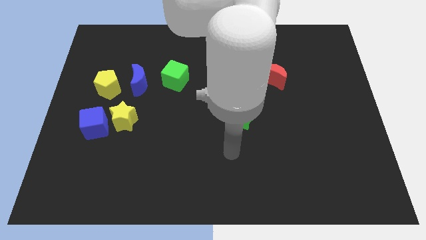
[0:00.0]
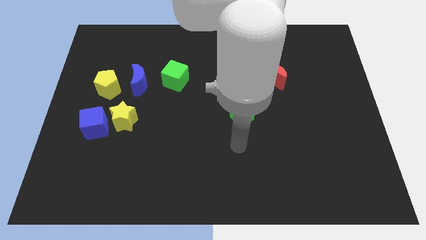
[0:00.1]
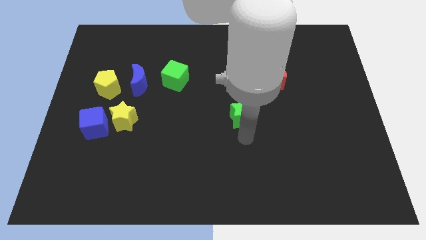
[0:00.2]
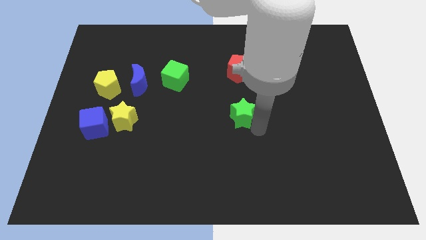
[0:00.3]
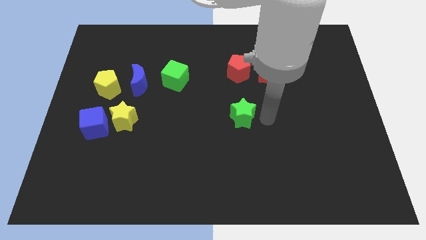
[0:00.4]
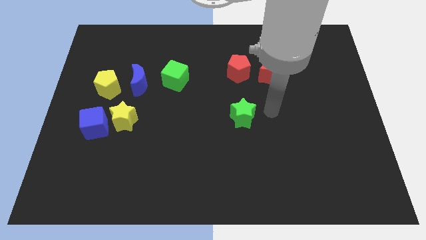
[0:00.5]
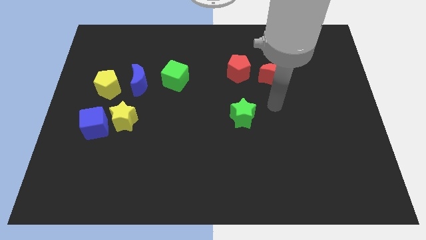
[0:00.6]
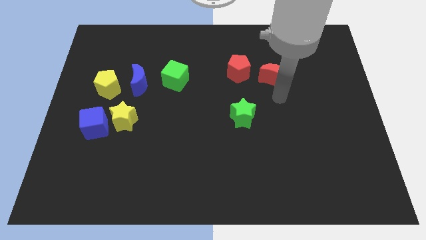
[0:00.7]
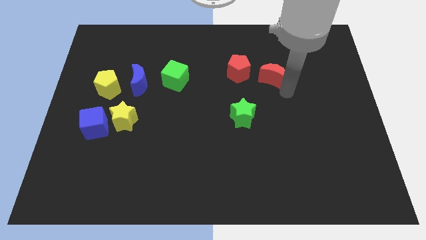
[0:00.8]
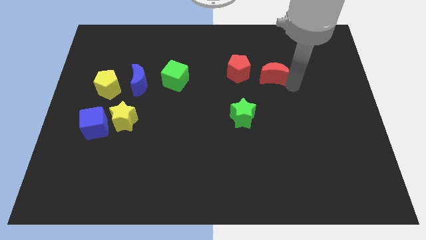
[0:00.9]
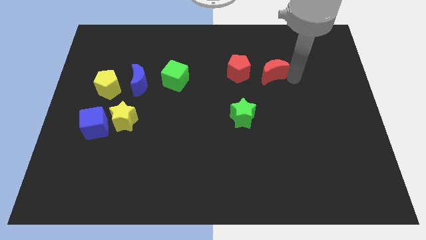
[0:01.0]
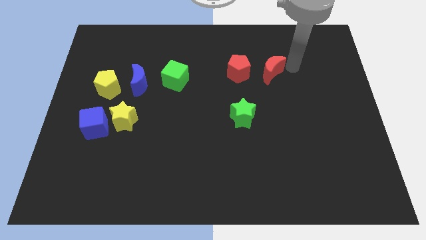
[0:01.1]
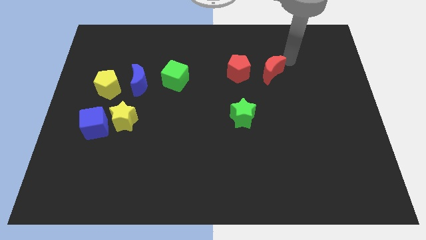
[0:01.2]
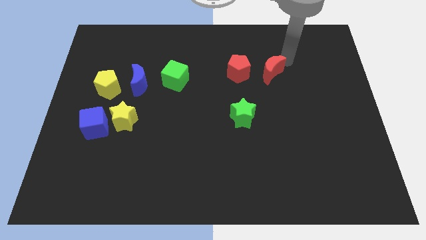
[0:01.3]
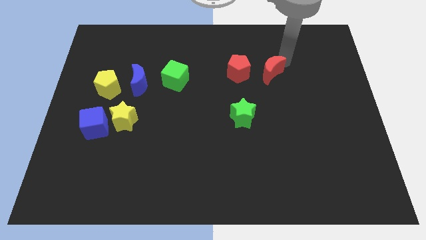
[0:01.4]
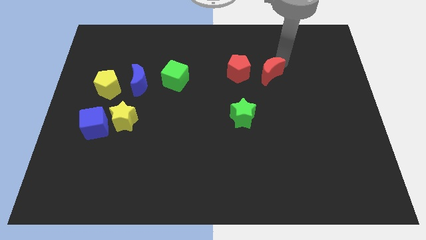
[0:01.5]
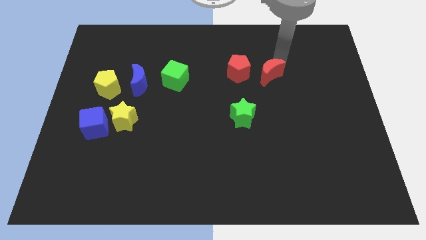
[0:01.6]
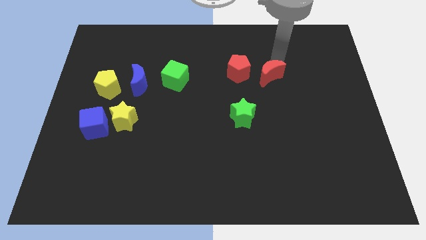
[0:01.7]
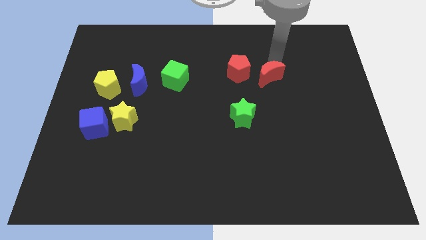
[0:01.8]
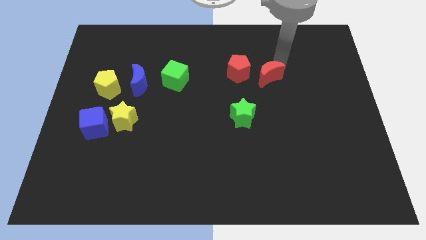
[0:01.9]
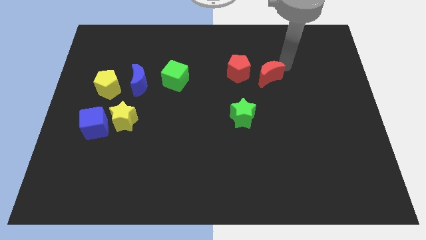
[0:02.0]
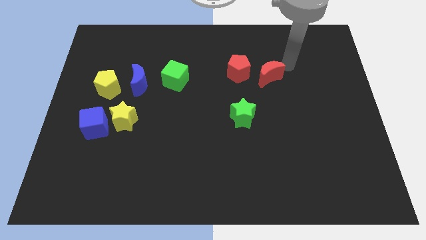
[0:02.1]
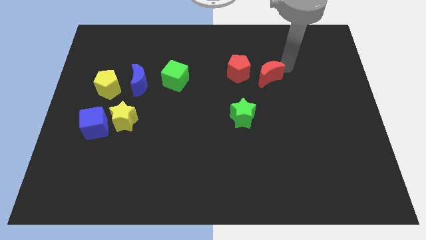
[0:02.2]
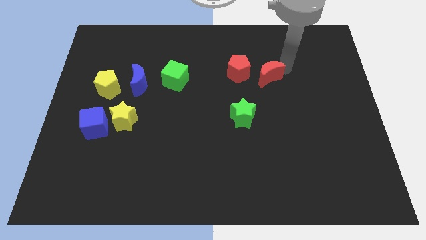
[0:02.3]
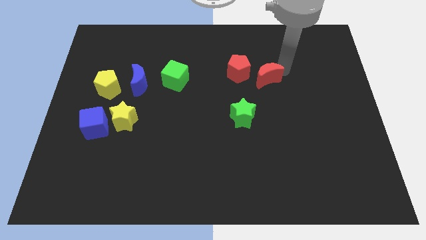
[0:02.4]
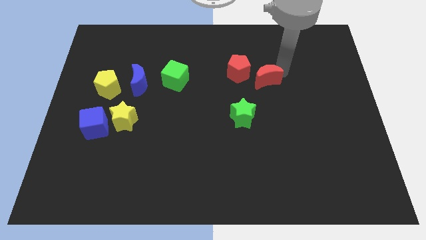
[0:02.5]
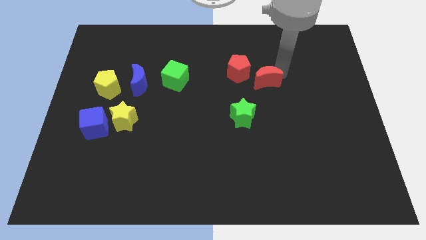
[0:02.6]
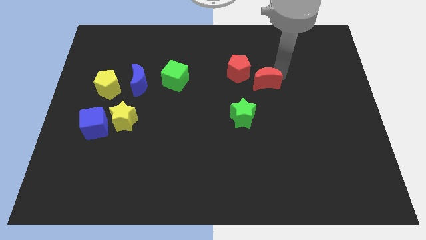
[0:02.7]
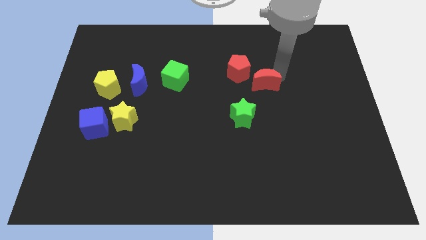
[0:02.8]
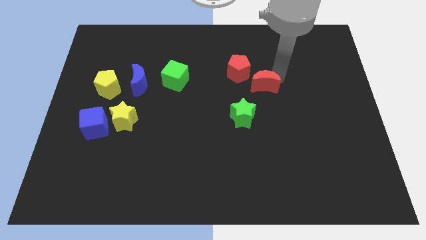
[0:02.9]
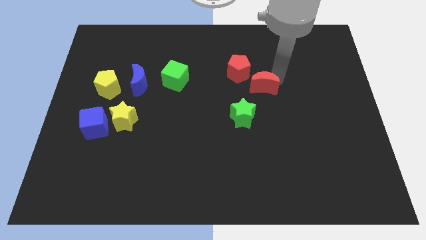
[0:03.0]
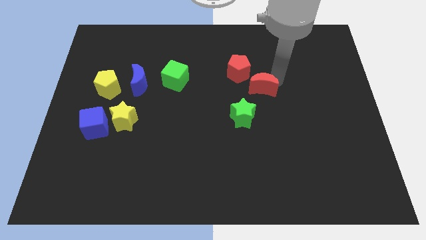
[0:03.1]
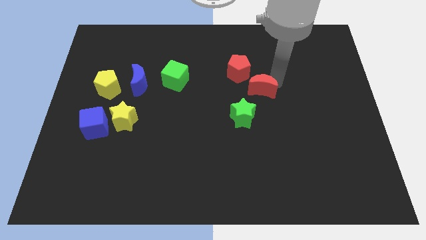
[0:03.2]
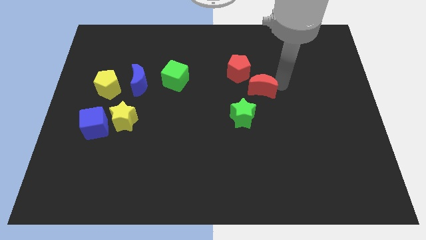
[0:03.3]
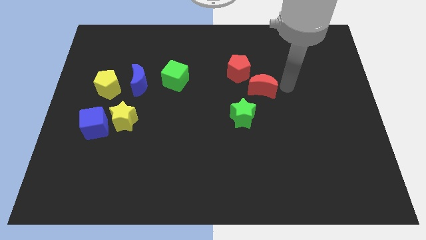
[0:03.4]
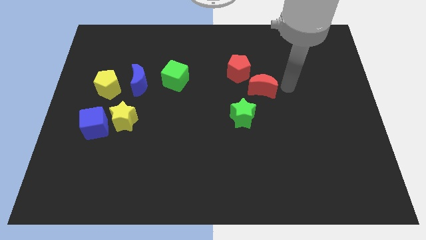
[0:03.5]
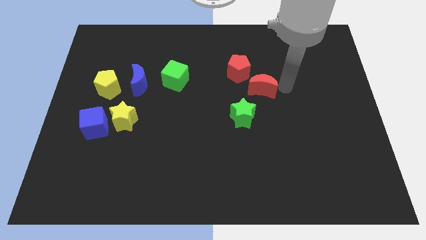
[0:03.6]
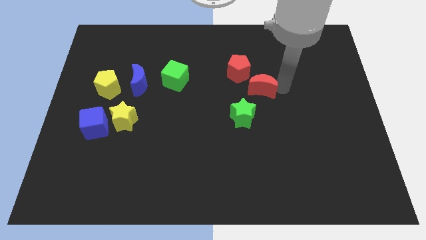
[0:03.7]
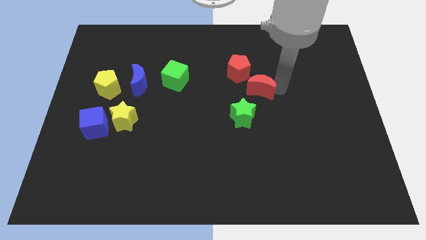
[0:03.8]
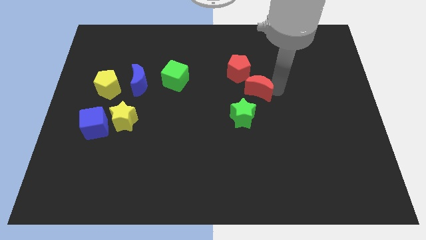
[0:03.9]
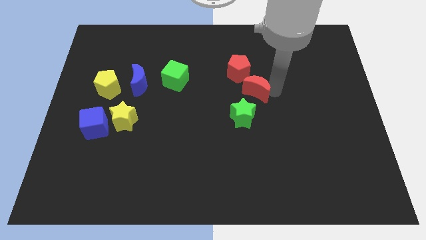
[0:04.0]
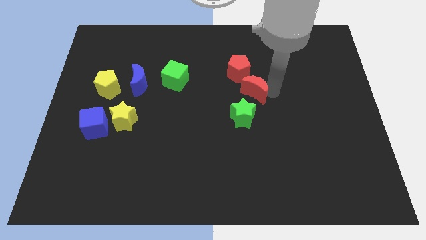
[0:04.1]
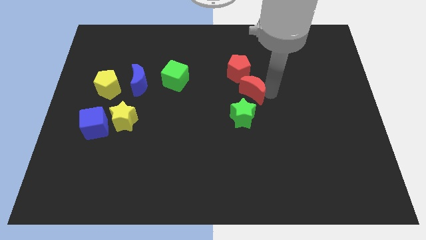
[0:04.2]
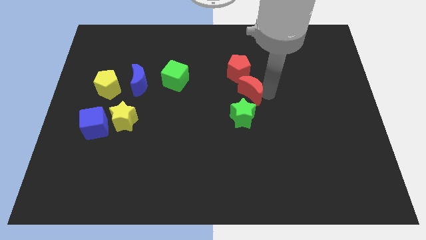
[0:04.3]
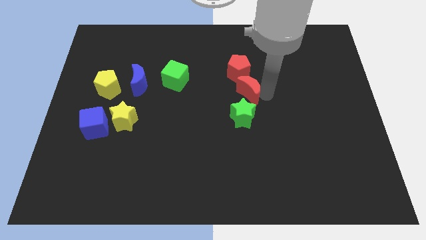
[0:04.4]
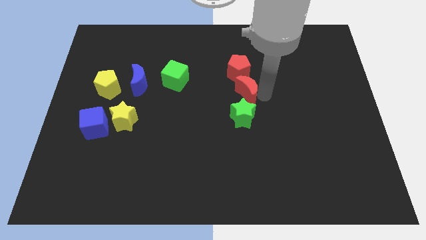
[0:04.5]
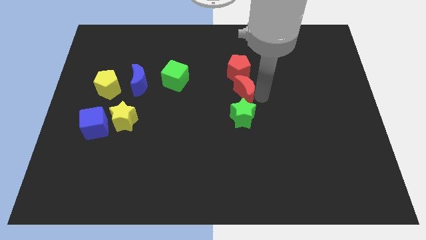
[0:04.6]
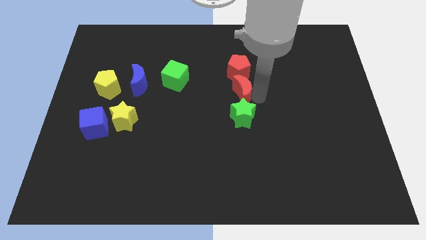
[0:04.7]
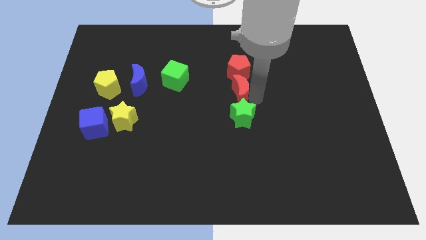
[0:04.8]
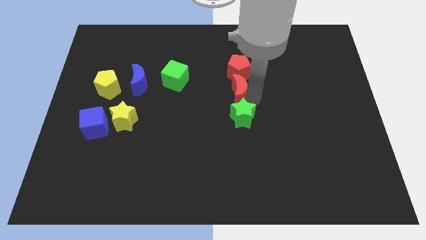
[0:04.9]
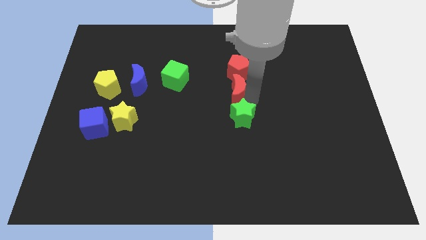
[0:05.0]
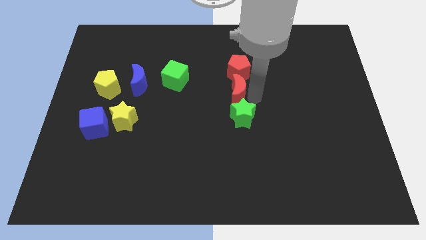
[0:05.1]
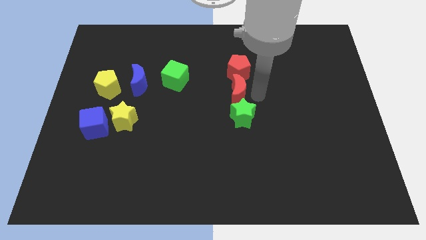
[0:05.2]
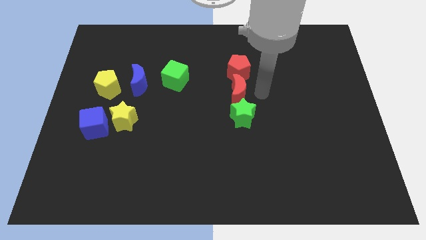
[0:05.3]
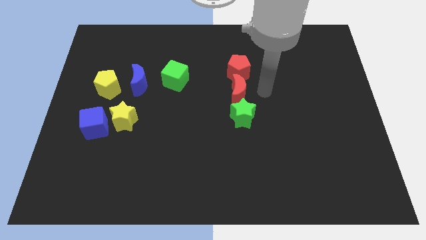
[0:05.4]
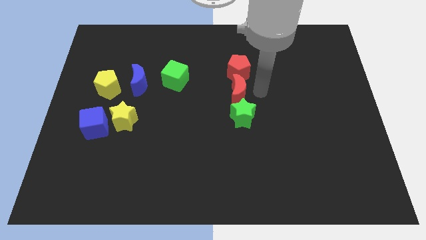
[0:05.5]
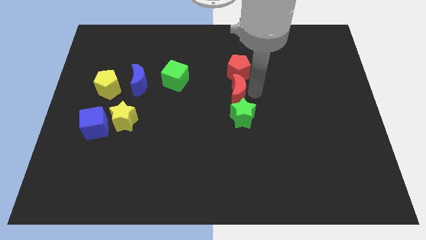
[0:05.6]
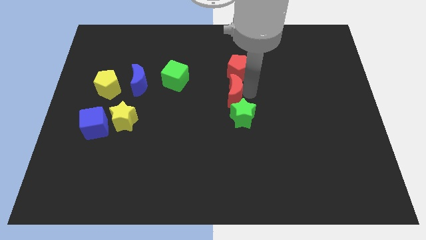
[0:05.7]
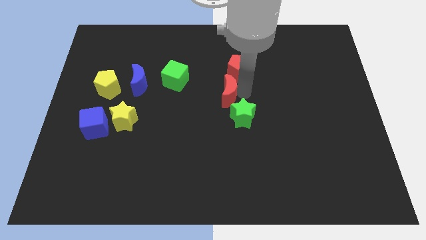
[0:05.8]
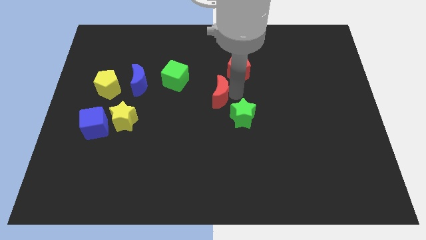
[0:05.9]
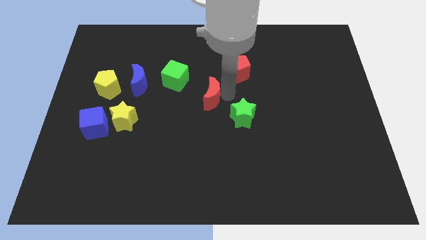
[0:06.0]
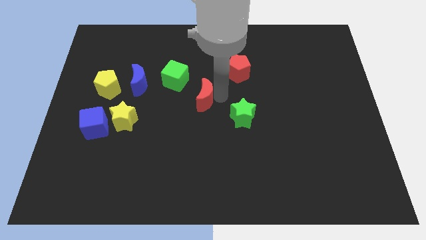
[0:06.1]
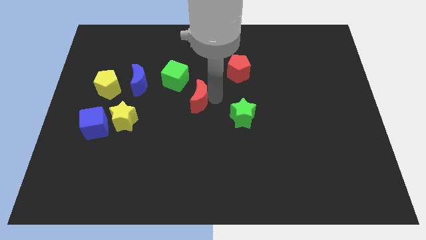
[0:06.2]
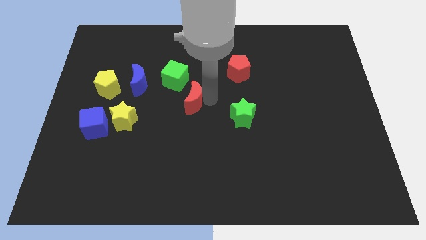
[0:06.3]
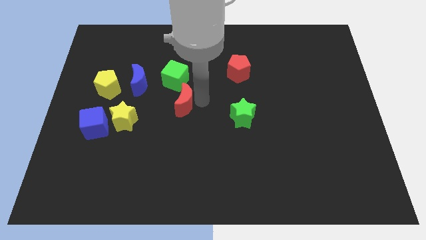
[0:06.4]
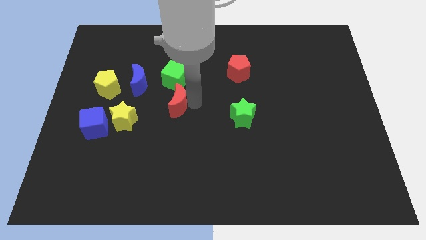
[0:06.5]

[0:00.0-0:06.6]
put the red moon to the bottom right side of the blue moon

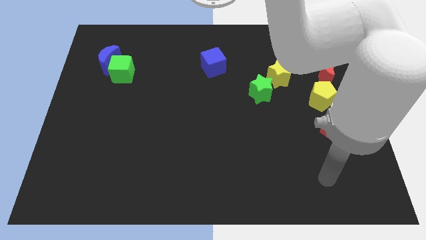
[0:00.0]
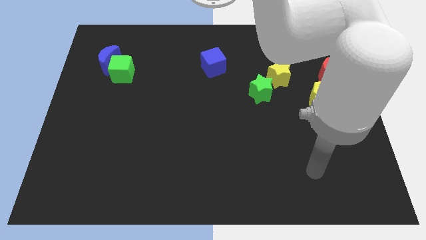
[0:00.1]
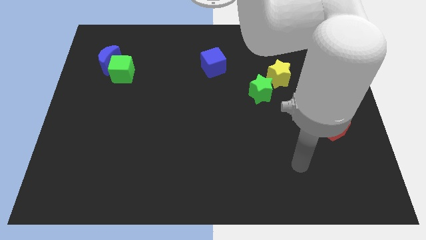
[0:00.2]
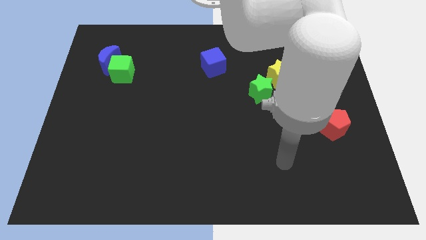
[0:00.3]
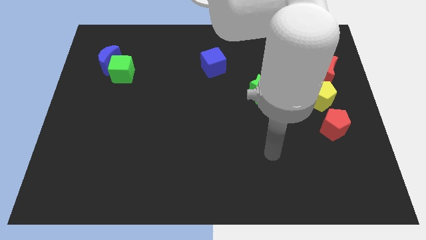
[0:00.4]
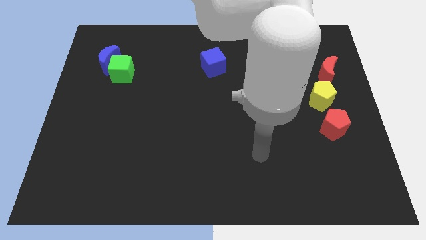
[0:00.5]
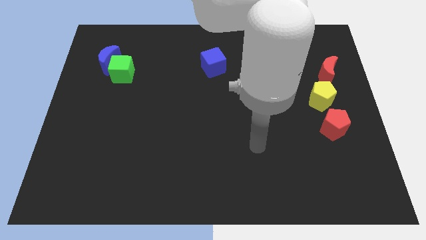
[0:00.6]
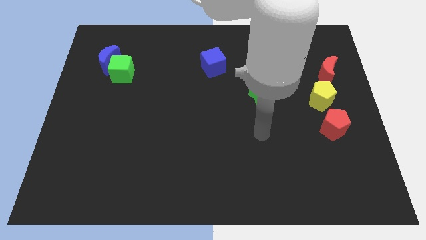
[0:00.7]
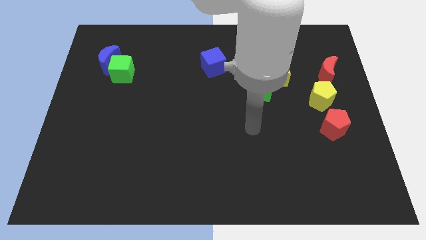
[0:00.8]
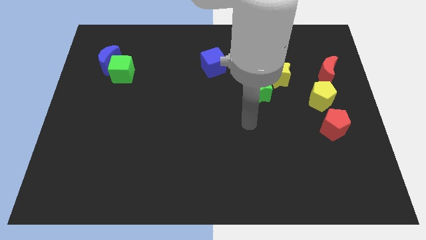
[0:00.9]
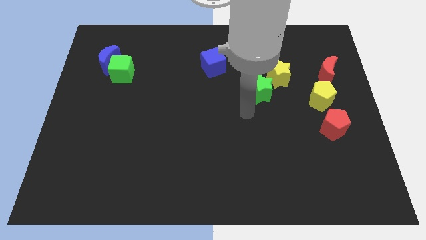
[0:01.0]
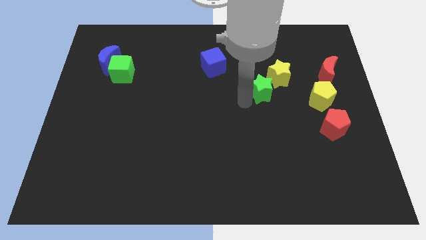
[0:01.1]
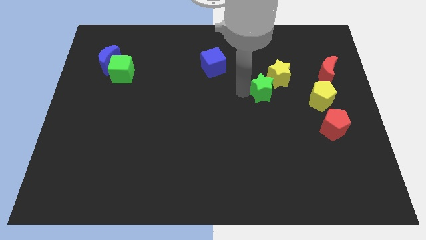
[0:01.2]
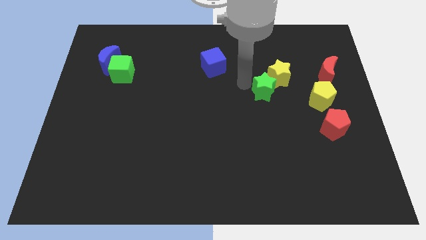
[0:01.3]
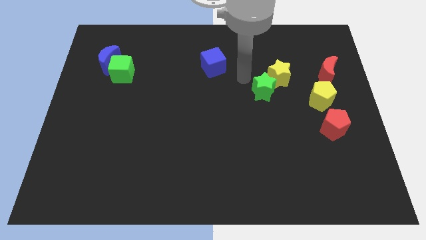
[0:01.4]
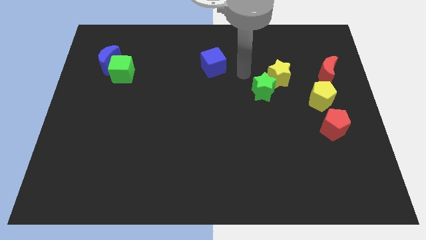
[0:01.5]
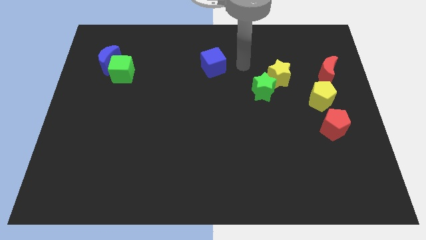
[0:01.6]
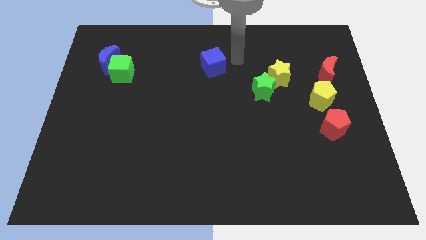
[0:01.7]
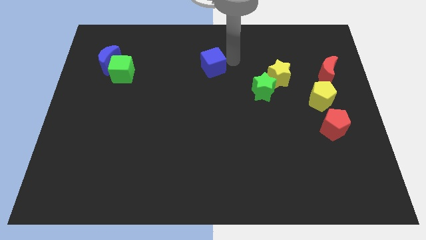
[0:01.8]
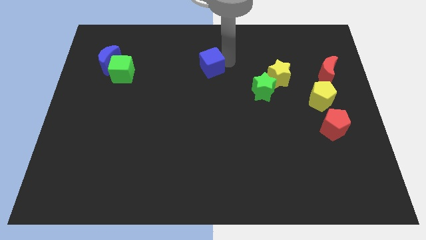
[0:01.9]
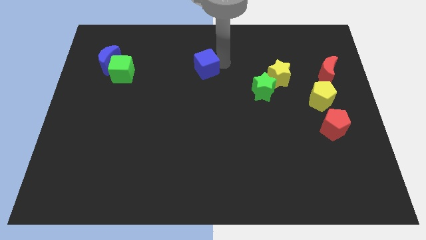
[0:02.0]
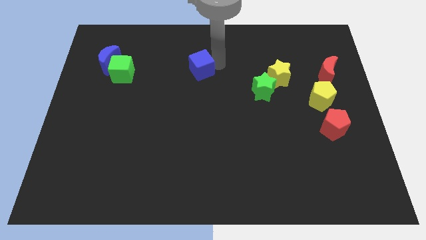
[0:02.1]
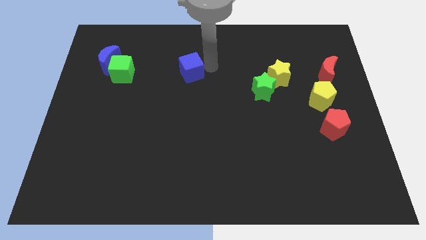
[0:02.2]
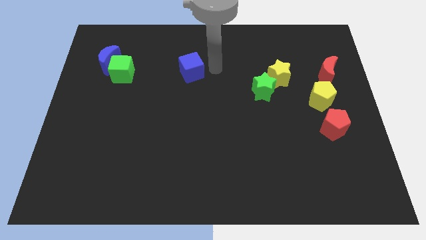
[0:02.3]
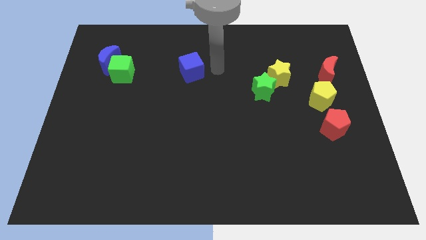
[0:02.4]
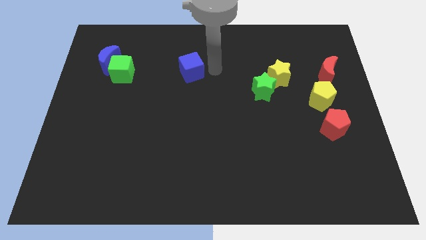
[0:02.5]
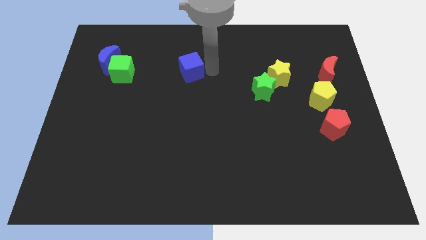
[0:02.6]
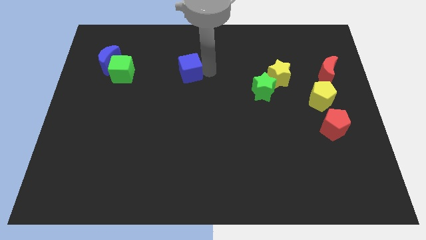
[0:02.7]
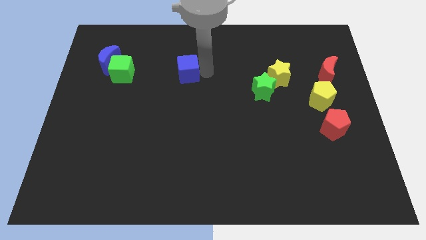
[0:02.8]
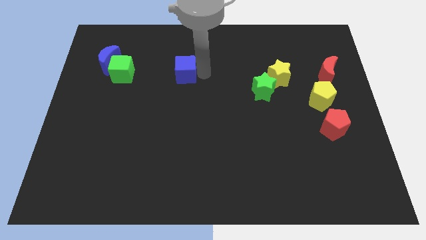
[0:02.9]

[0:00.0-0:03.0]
put the blue cube to the right side of the green cube
